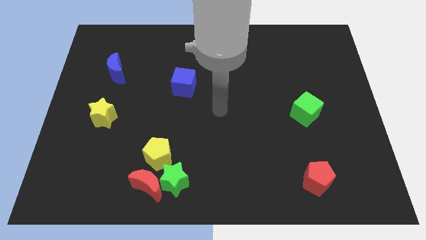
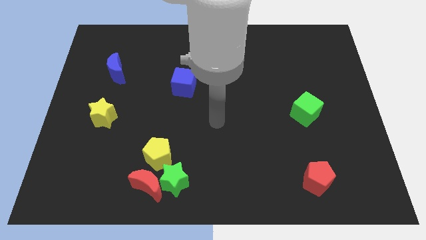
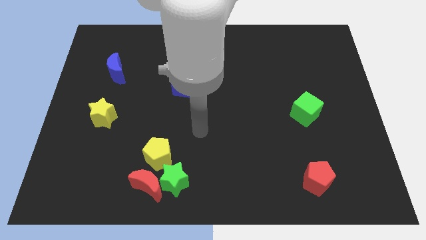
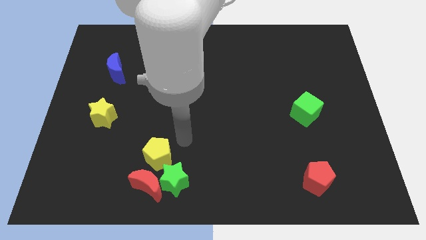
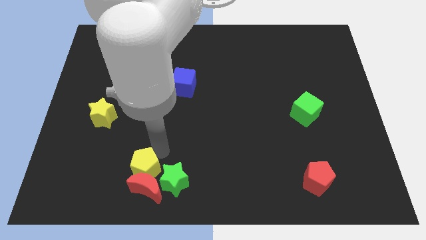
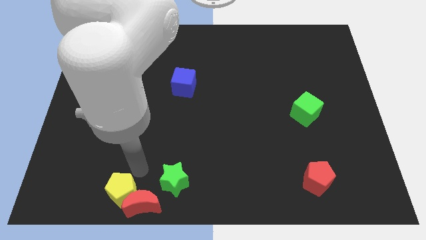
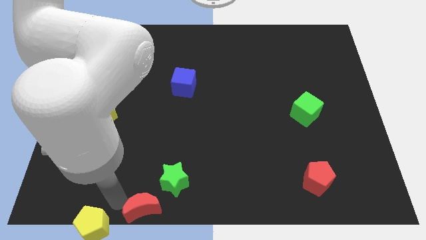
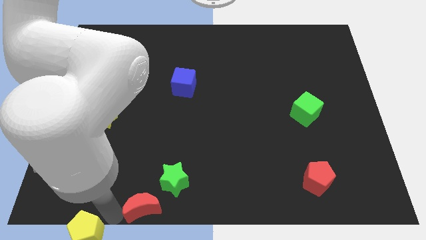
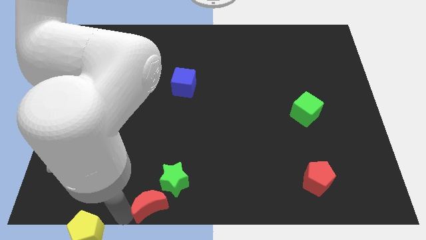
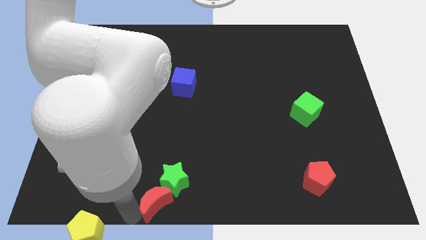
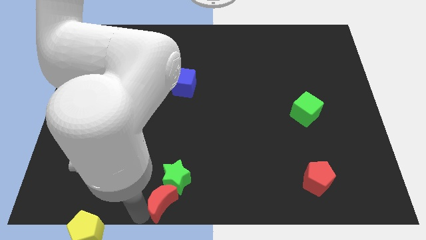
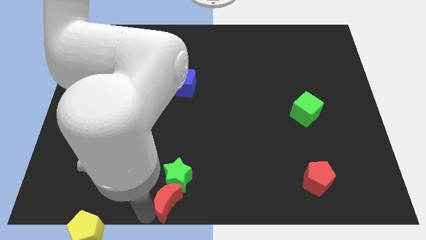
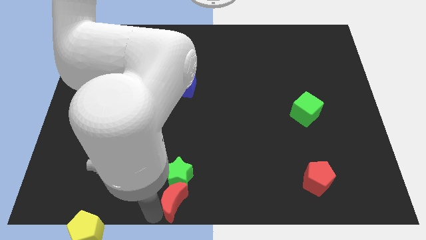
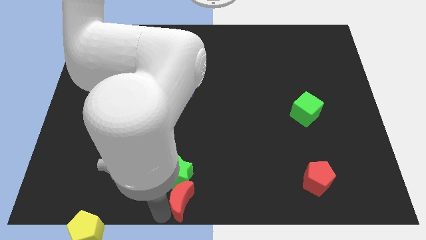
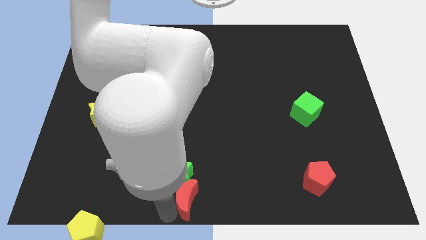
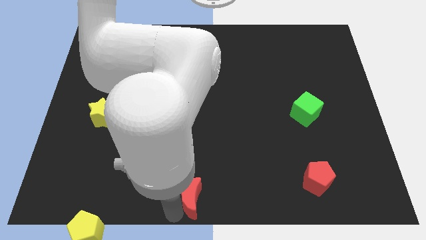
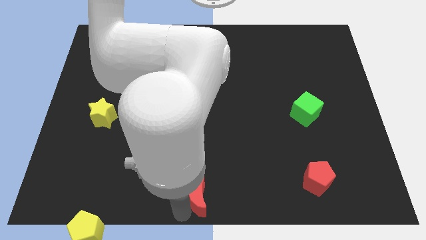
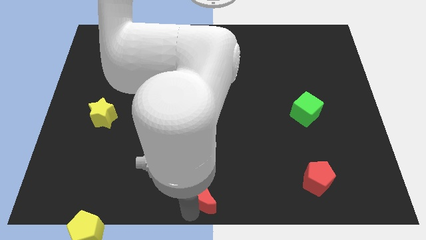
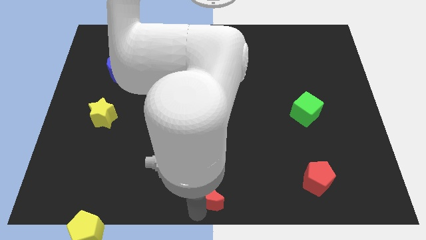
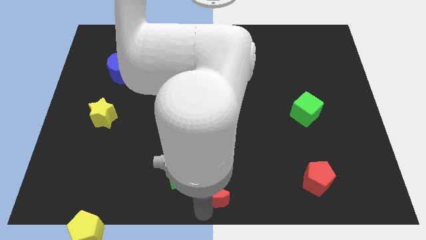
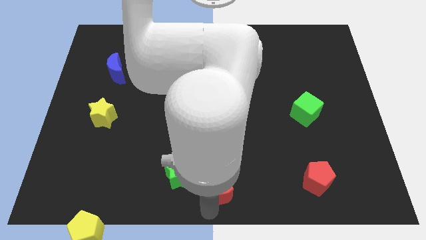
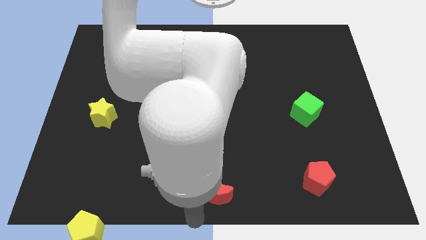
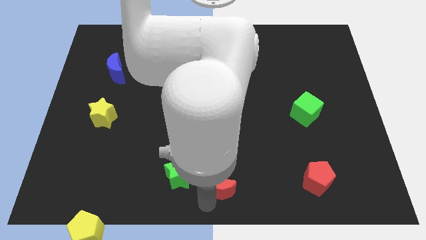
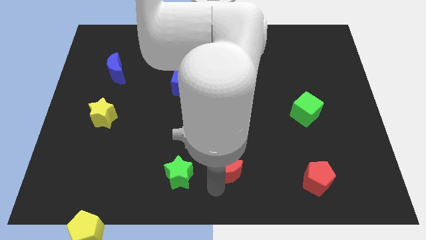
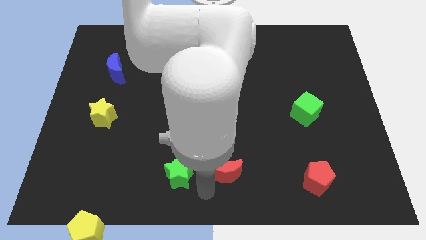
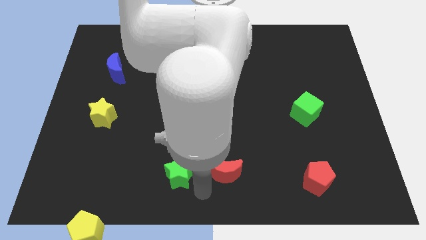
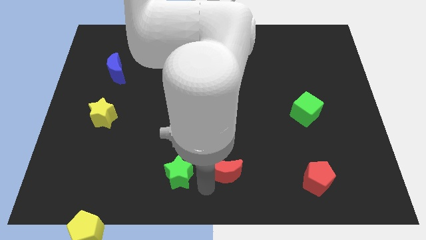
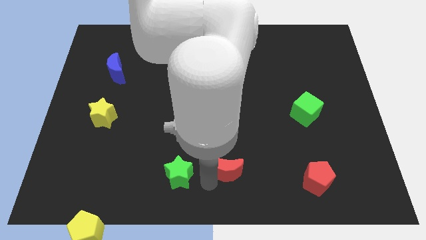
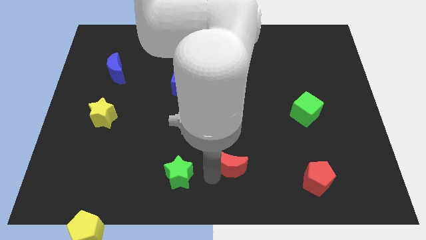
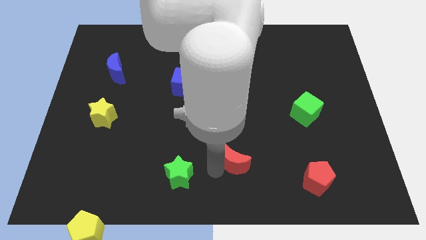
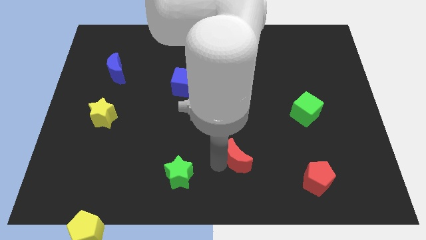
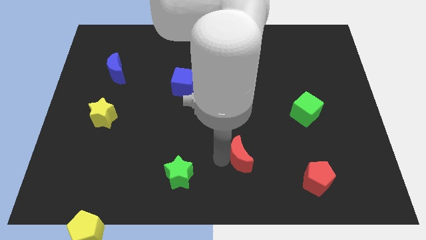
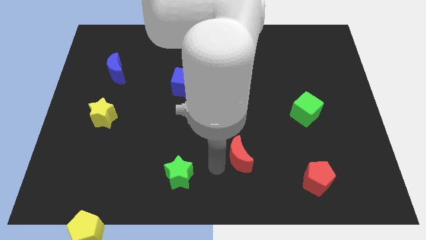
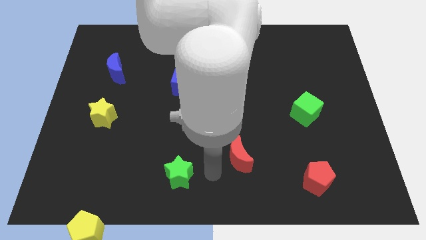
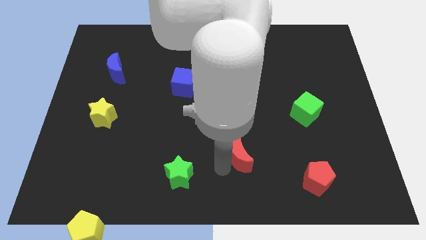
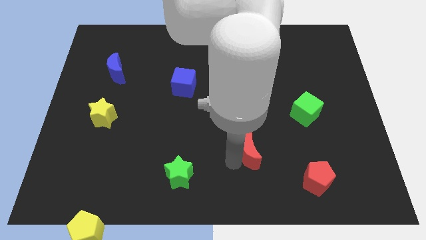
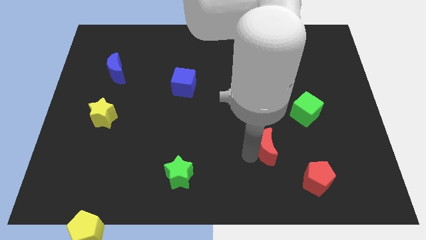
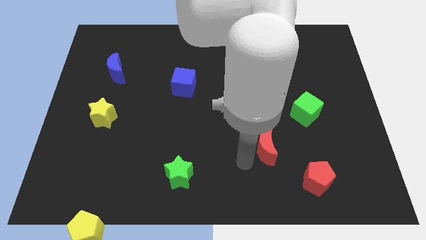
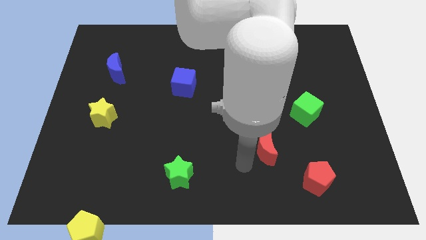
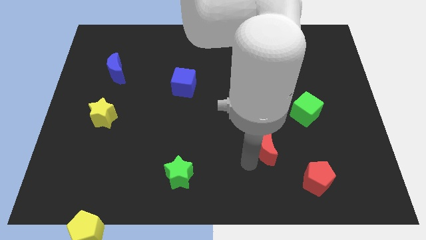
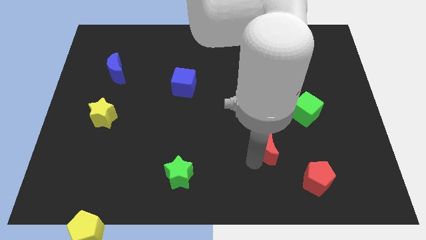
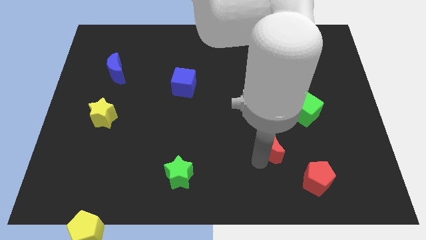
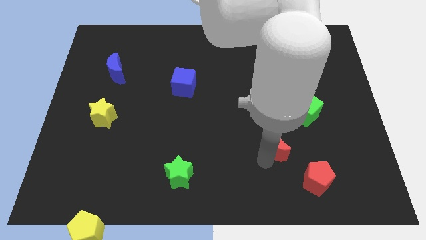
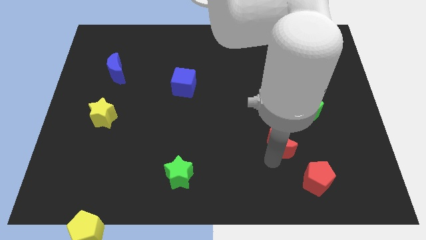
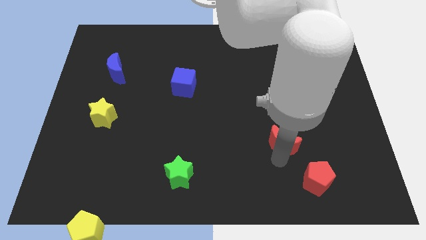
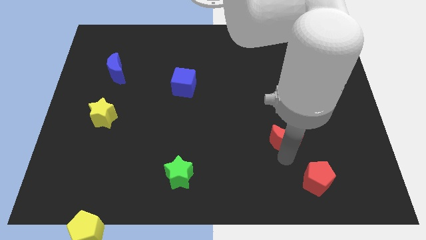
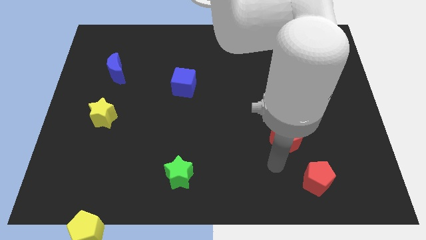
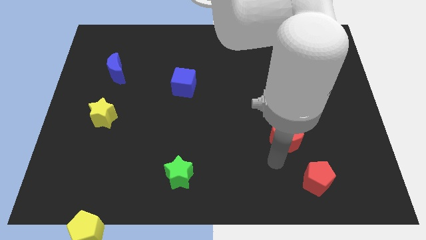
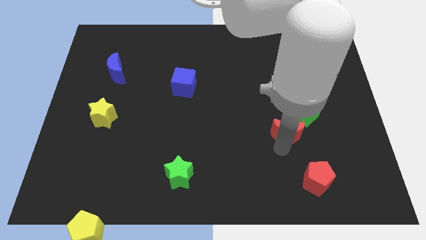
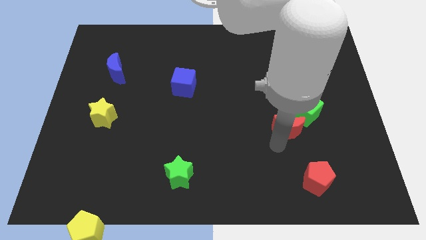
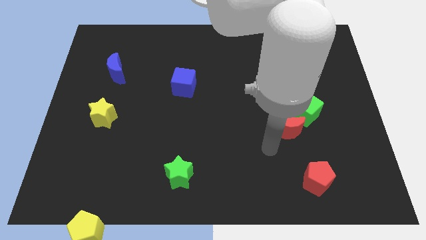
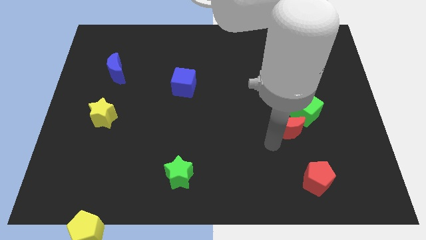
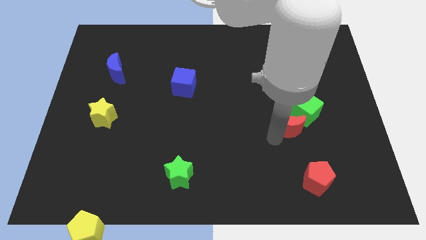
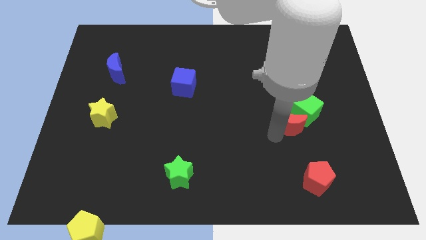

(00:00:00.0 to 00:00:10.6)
push the red moon to the green cube

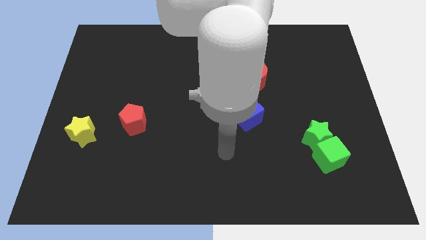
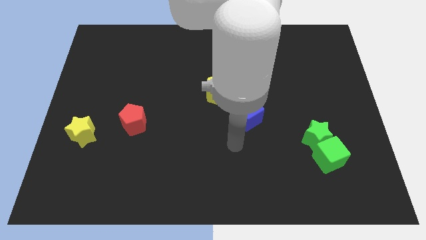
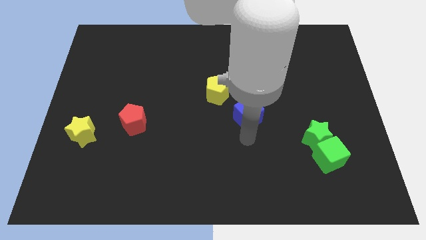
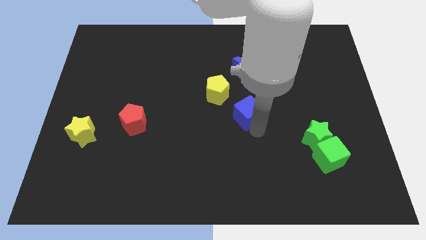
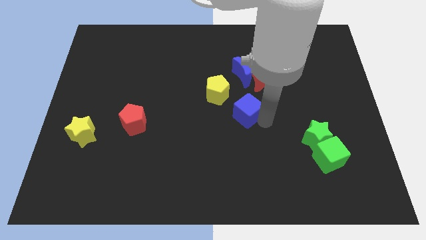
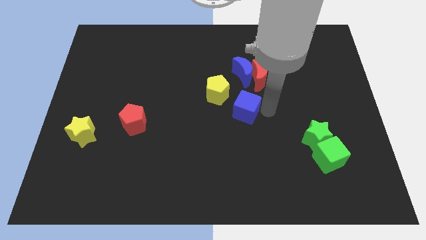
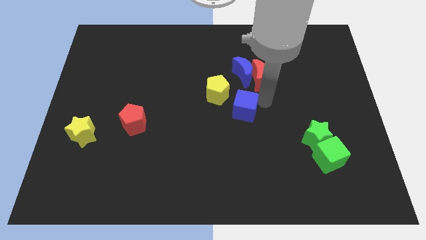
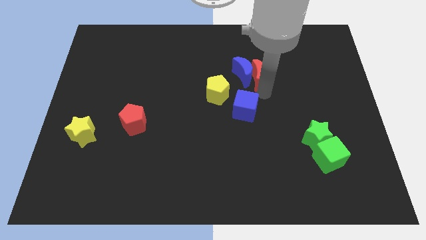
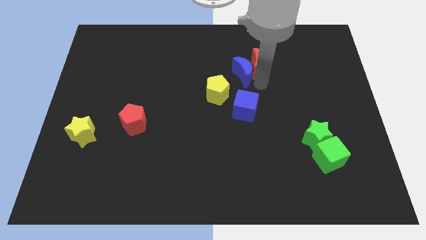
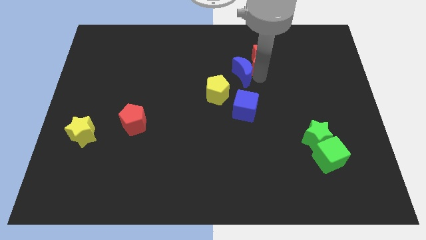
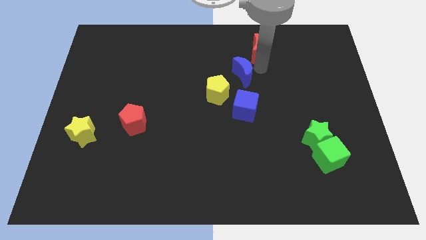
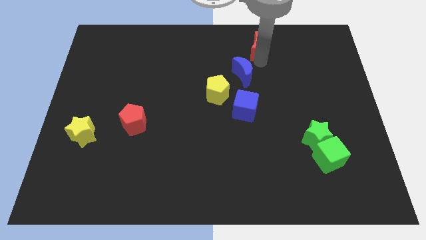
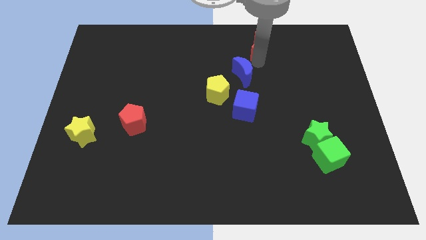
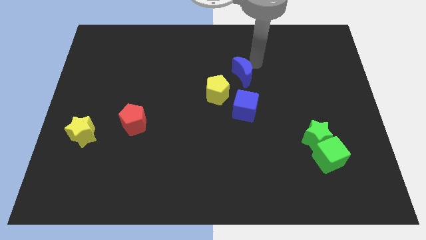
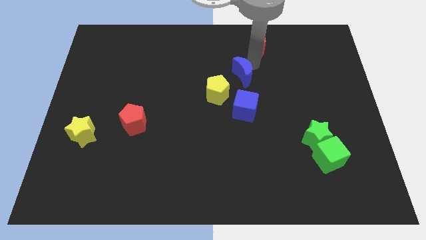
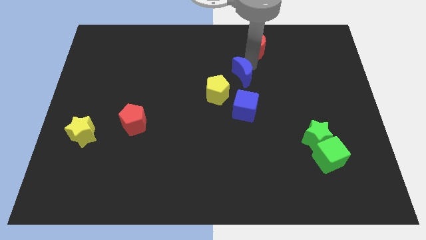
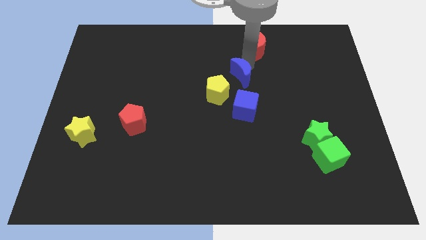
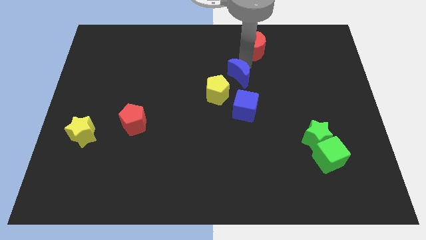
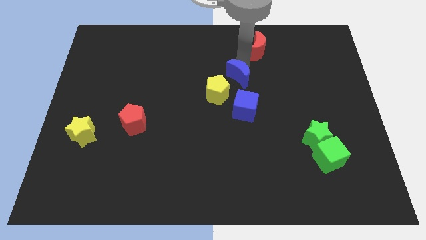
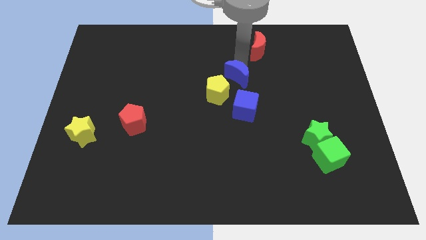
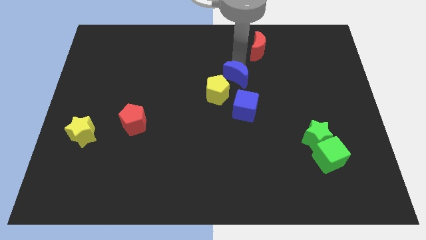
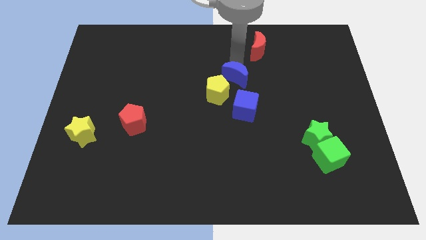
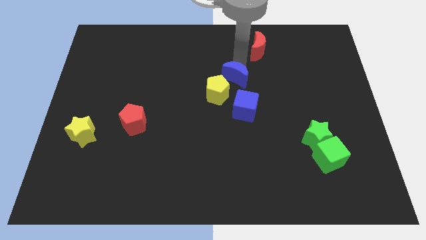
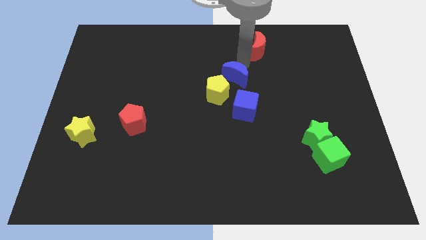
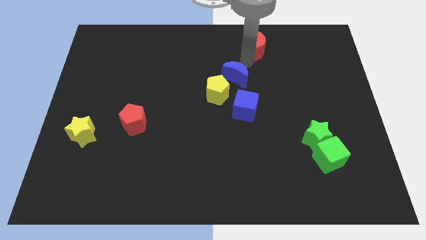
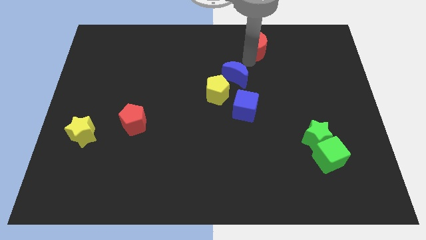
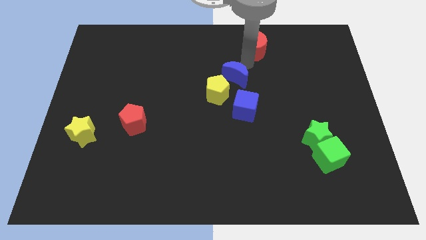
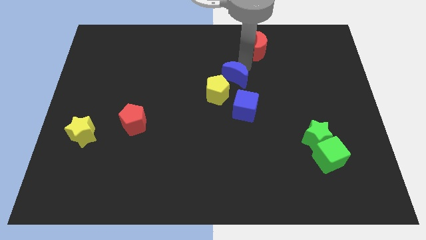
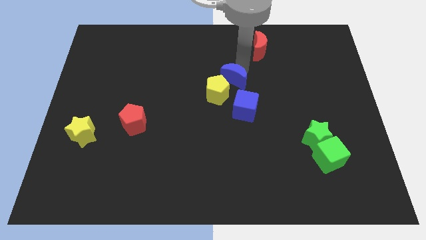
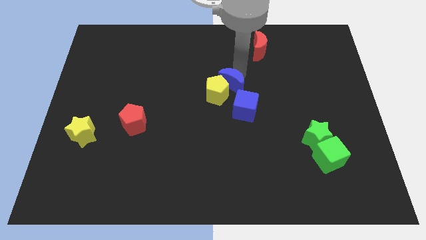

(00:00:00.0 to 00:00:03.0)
move the blue moon close to the yellow pentagon
